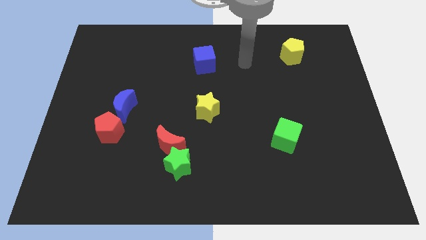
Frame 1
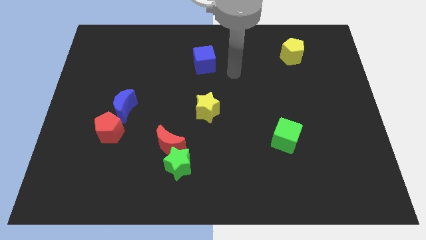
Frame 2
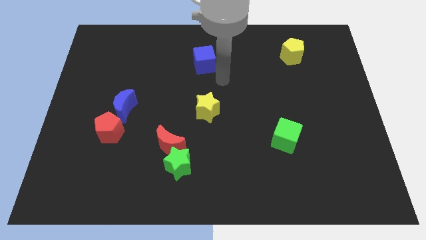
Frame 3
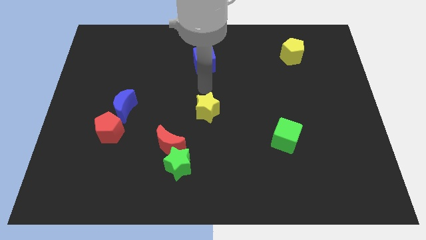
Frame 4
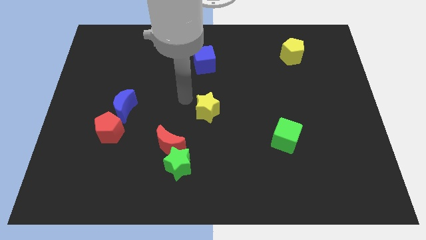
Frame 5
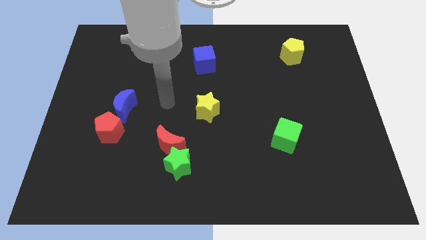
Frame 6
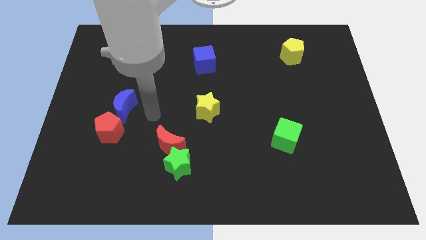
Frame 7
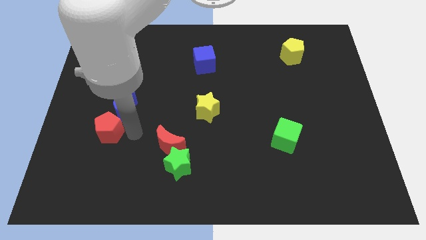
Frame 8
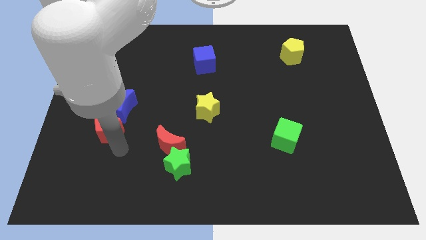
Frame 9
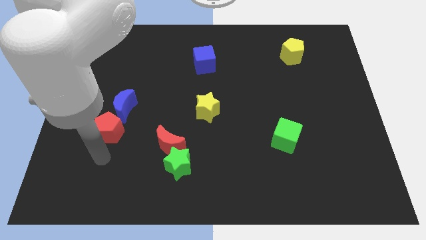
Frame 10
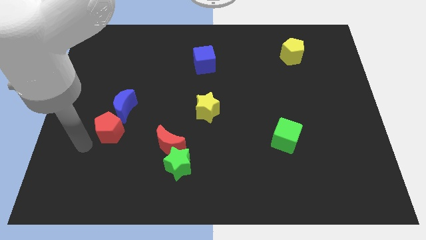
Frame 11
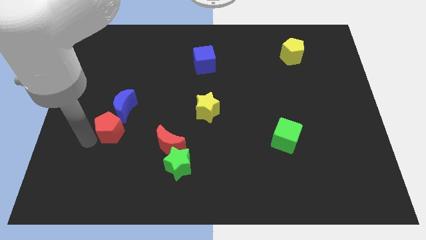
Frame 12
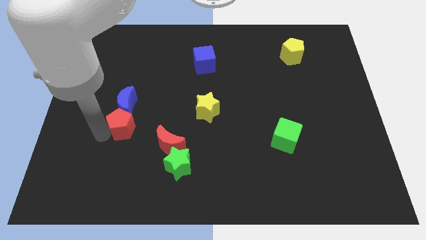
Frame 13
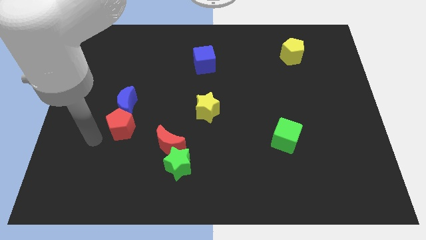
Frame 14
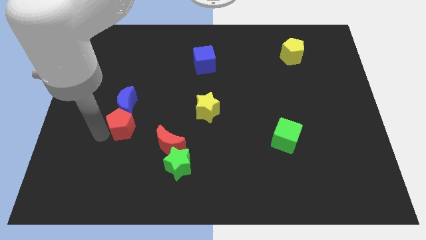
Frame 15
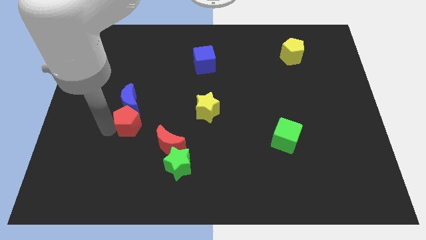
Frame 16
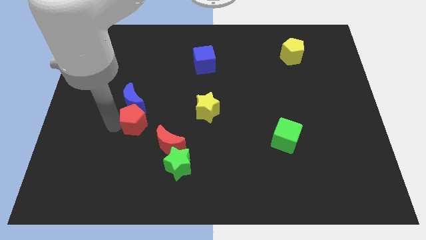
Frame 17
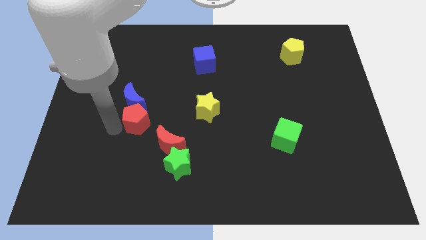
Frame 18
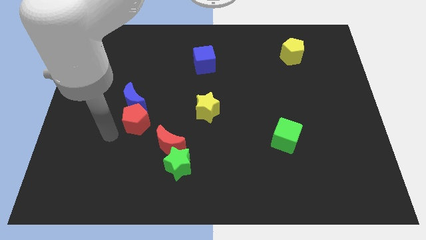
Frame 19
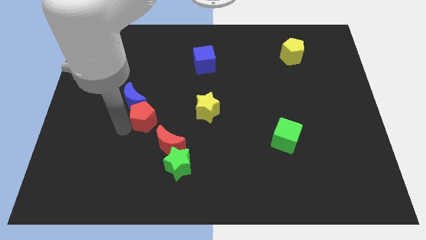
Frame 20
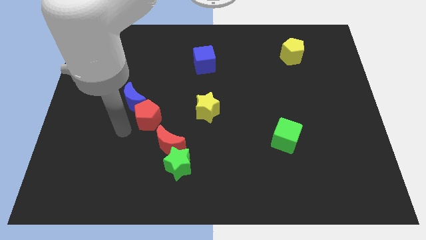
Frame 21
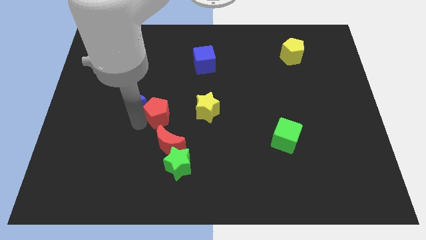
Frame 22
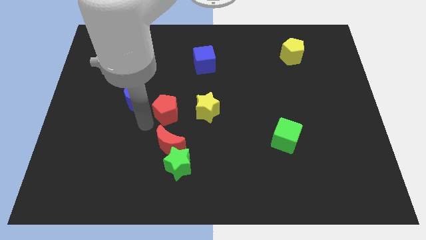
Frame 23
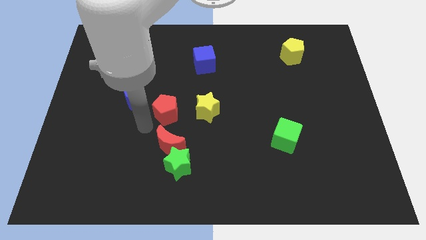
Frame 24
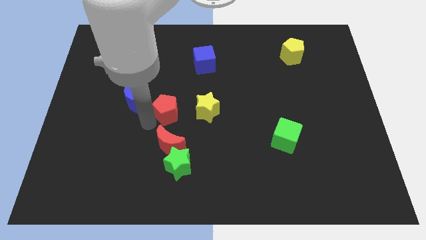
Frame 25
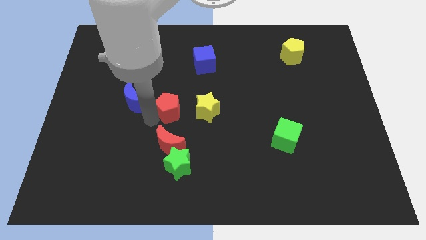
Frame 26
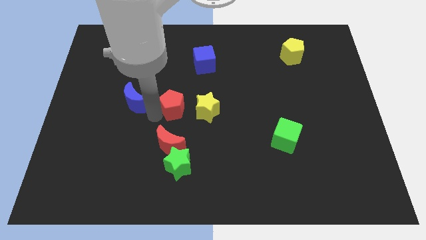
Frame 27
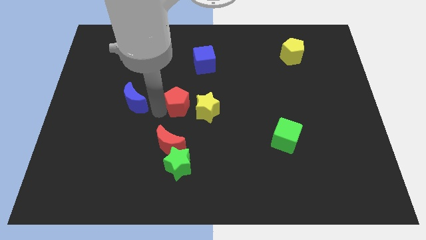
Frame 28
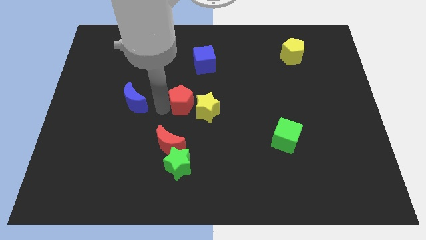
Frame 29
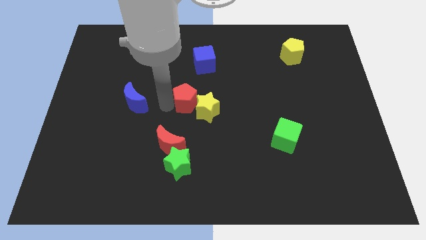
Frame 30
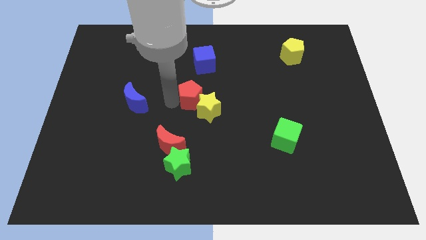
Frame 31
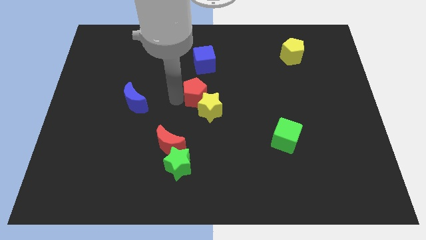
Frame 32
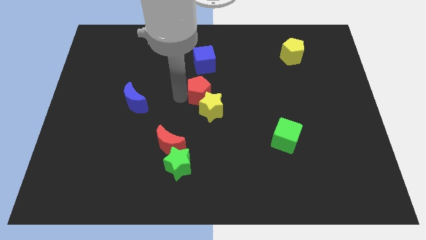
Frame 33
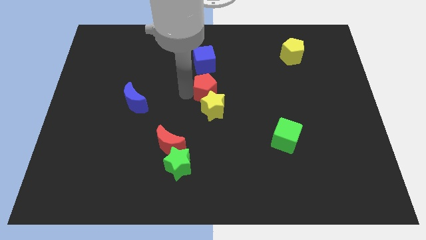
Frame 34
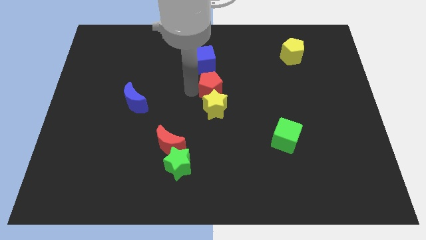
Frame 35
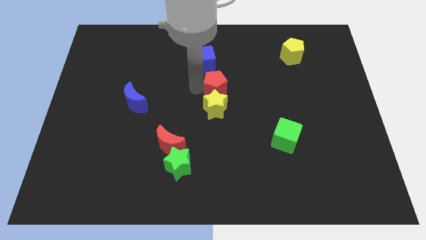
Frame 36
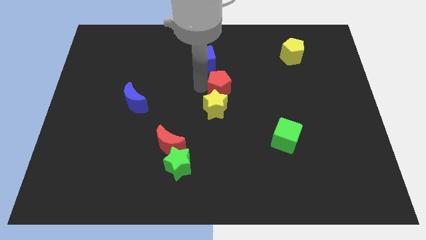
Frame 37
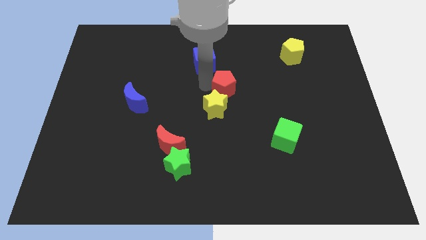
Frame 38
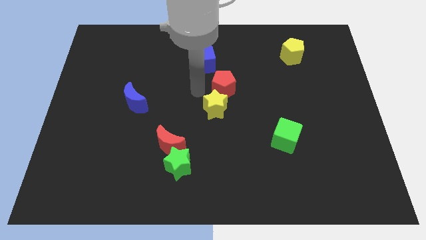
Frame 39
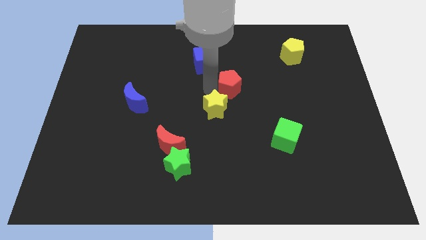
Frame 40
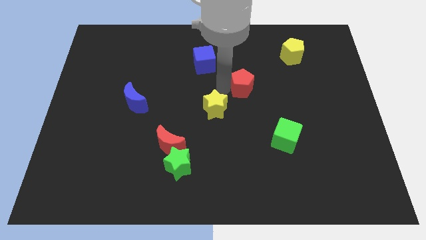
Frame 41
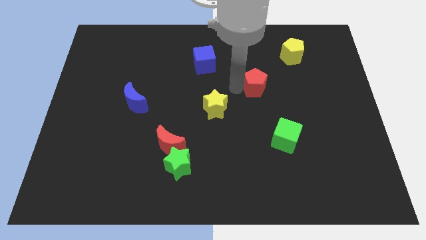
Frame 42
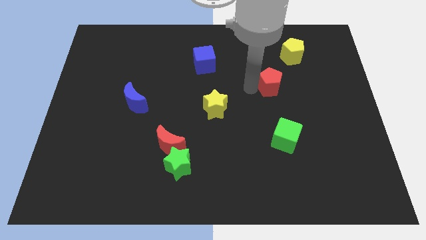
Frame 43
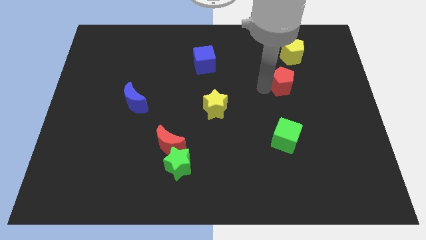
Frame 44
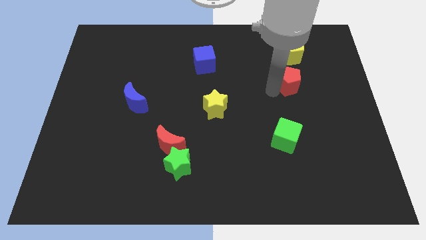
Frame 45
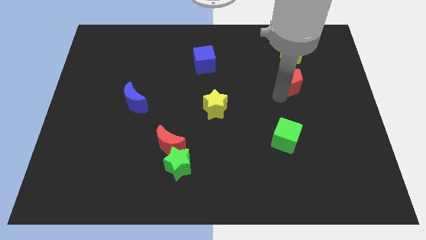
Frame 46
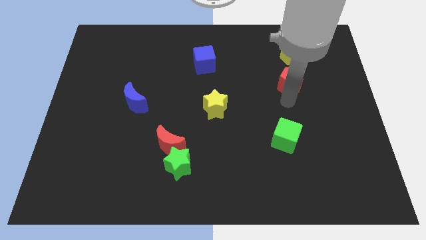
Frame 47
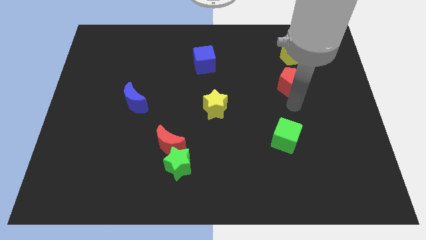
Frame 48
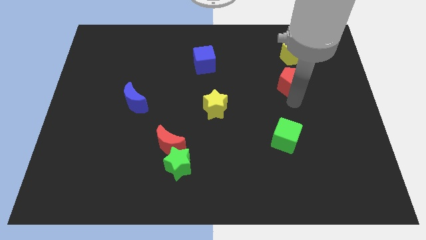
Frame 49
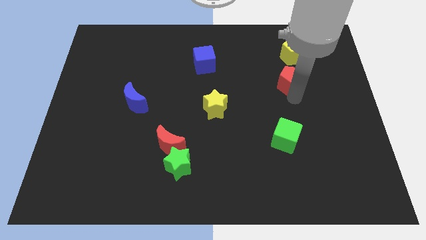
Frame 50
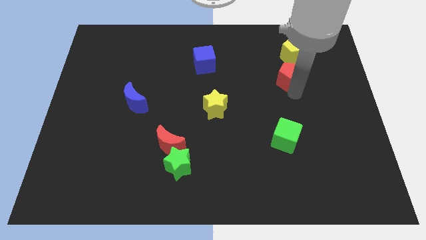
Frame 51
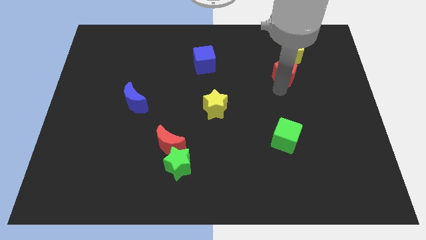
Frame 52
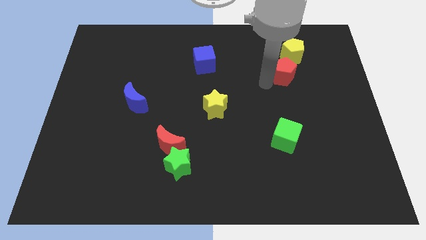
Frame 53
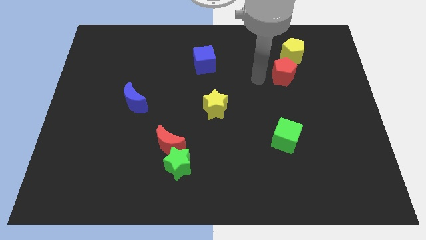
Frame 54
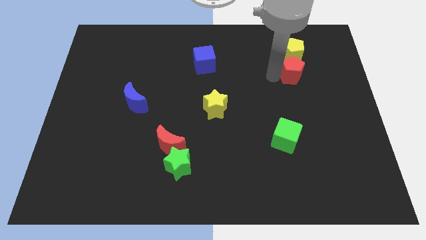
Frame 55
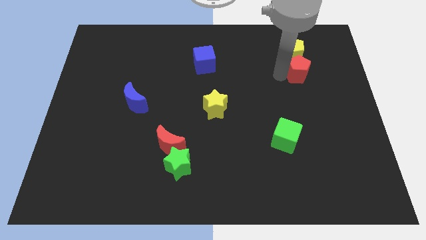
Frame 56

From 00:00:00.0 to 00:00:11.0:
push the red pentagon diagonally down and to the right of the yellow pentagon

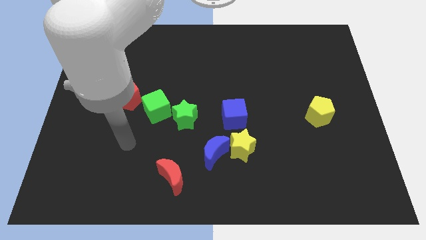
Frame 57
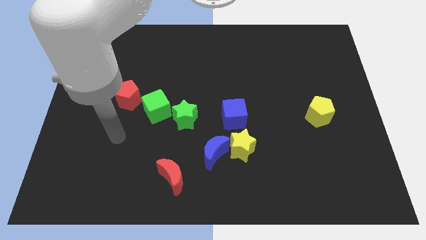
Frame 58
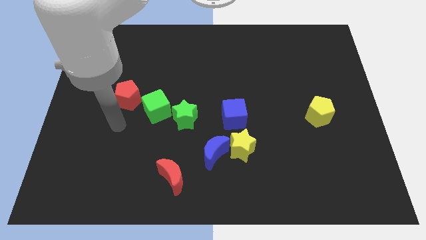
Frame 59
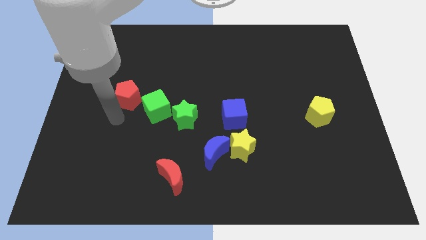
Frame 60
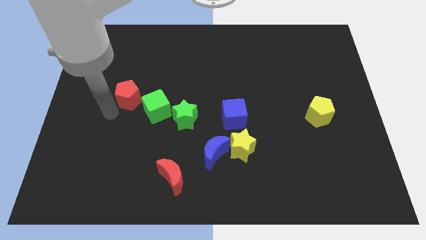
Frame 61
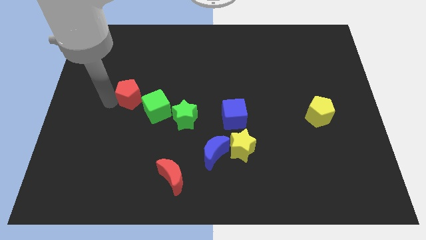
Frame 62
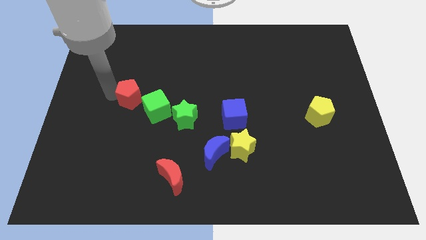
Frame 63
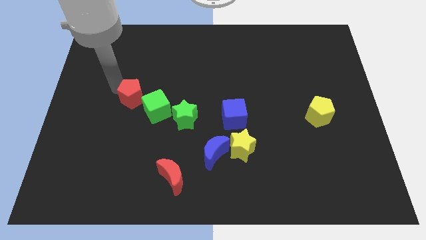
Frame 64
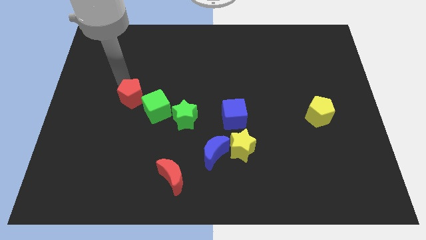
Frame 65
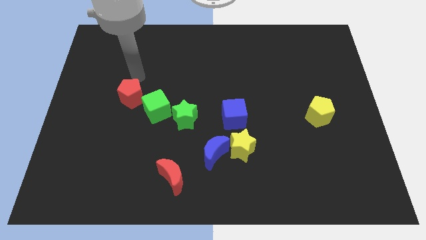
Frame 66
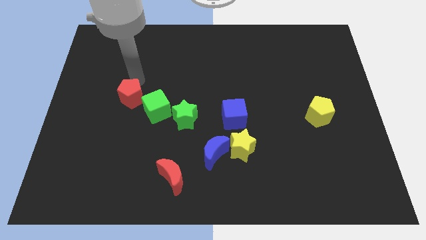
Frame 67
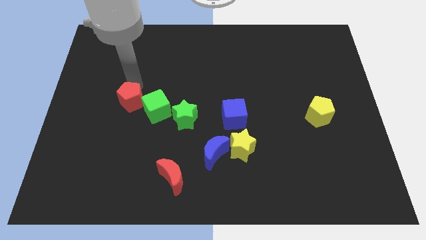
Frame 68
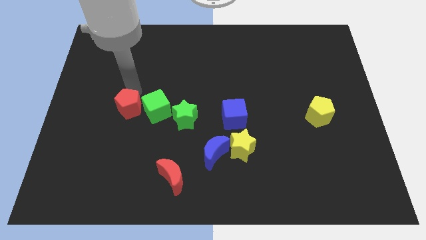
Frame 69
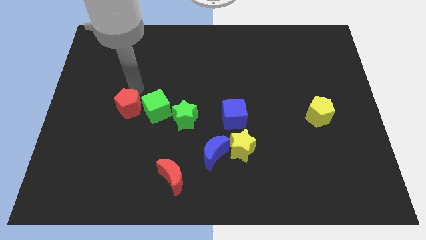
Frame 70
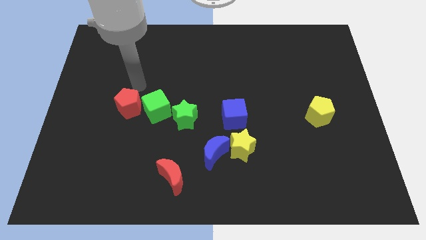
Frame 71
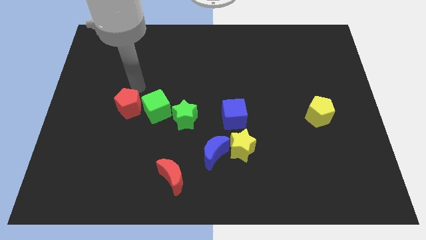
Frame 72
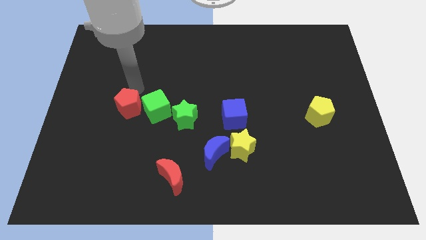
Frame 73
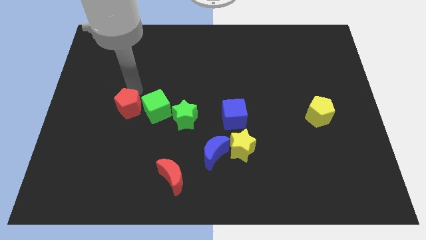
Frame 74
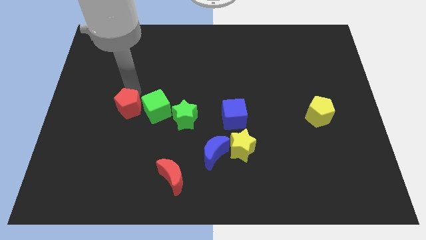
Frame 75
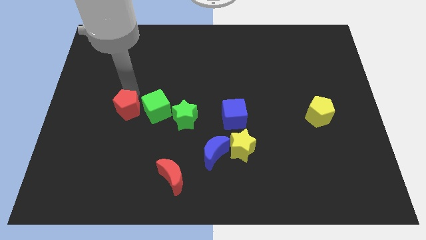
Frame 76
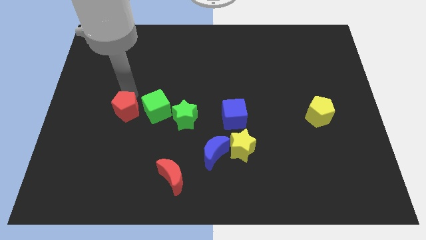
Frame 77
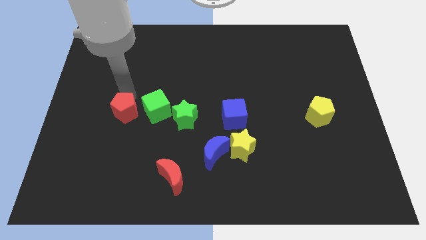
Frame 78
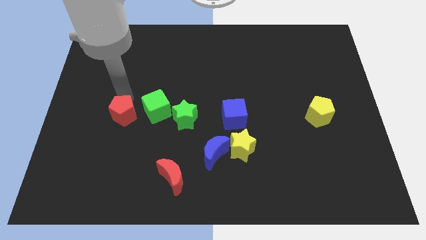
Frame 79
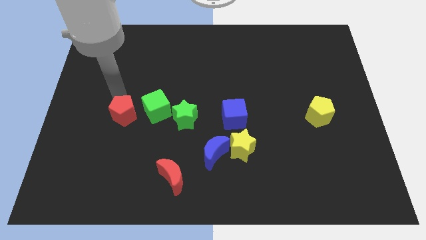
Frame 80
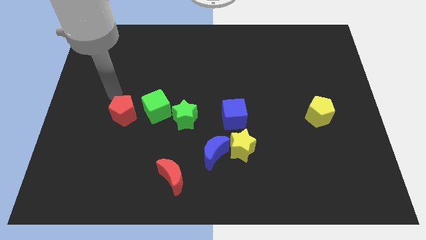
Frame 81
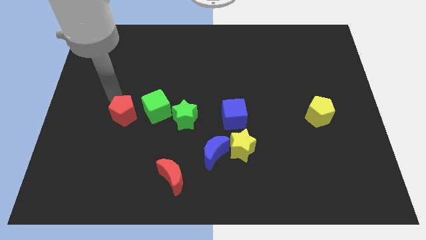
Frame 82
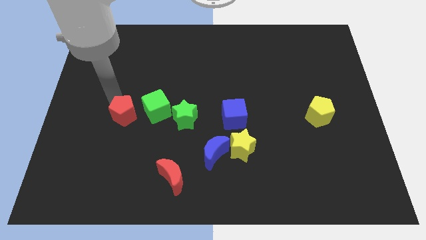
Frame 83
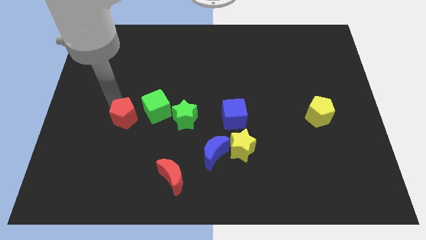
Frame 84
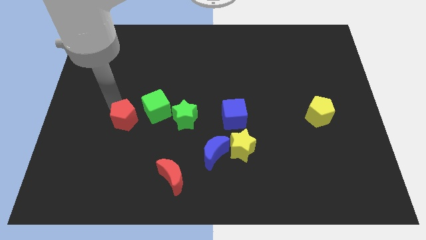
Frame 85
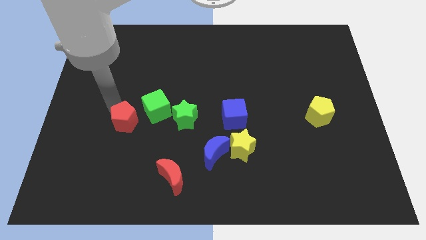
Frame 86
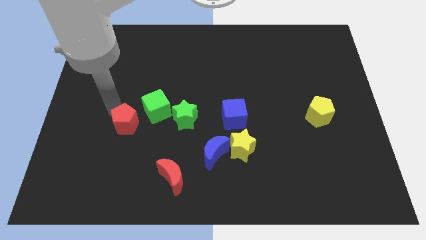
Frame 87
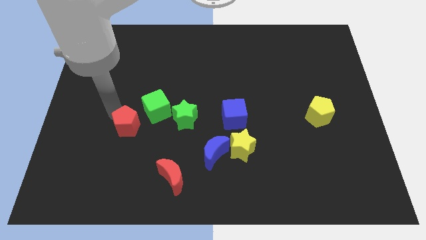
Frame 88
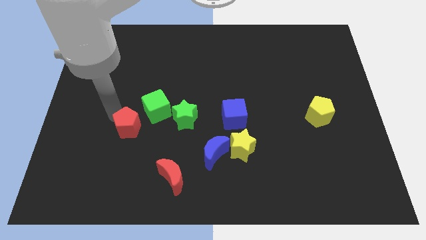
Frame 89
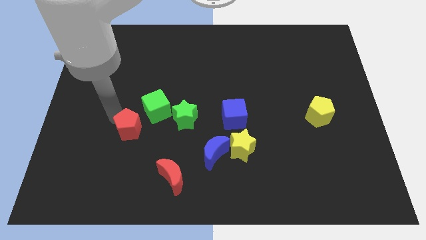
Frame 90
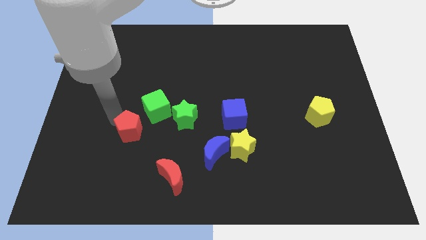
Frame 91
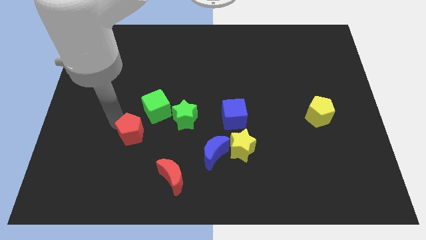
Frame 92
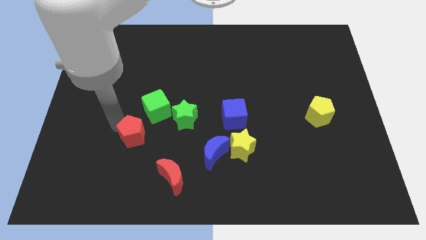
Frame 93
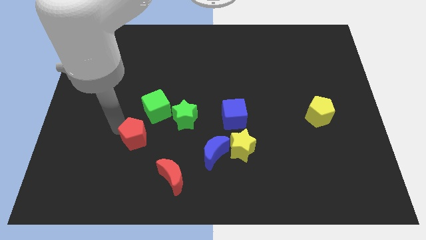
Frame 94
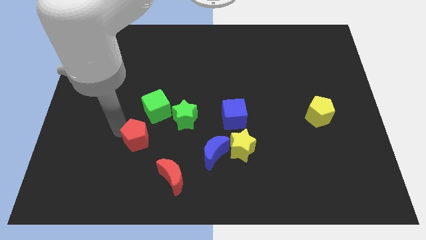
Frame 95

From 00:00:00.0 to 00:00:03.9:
put the red pentagon to the top left of the red moon
